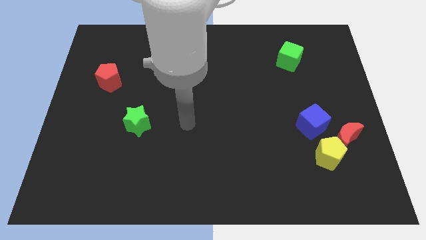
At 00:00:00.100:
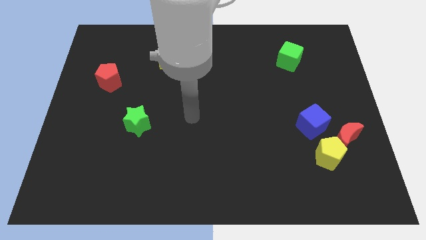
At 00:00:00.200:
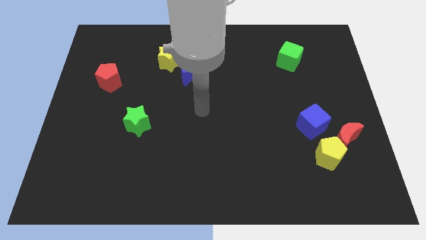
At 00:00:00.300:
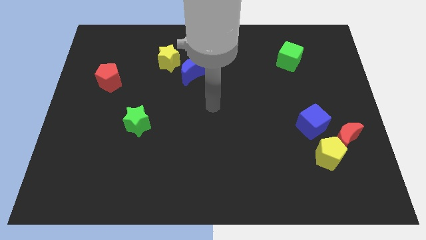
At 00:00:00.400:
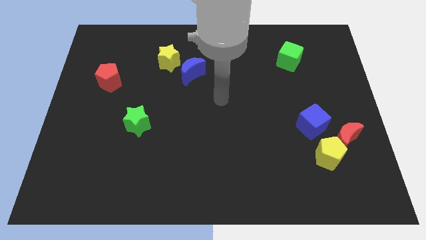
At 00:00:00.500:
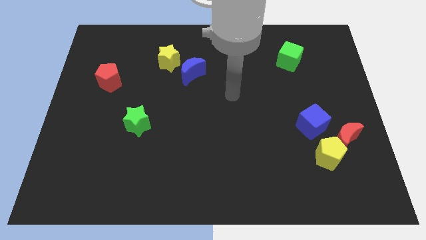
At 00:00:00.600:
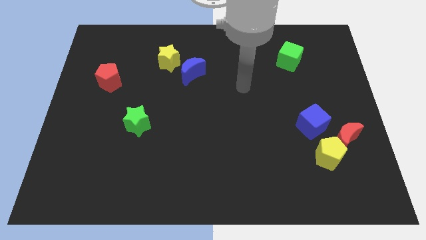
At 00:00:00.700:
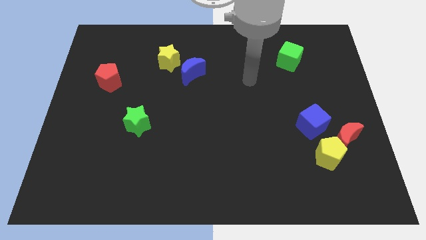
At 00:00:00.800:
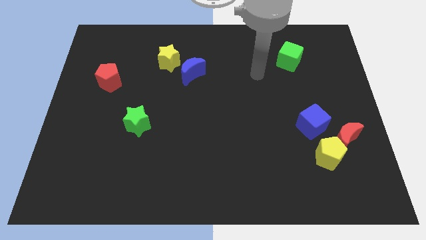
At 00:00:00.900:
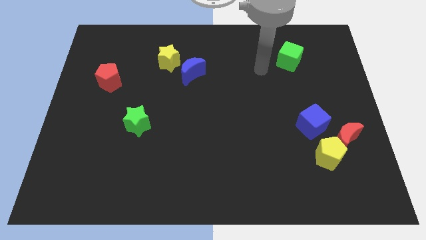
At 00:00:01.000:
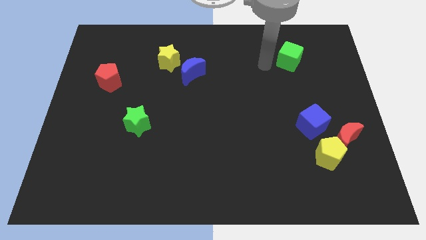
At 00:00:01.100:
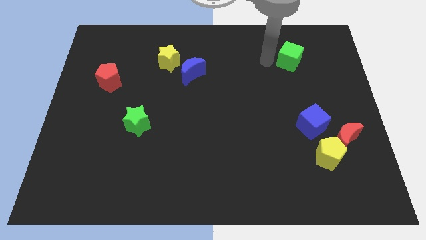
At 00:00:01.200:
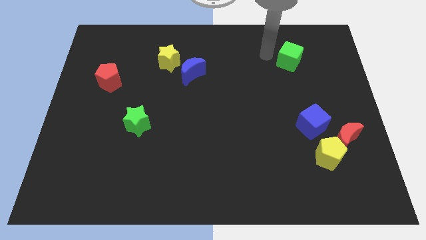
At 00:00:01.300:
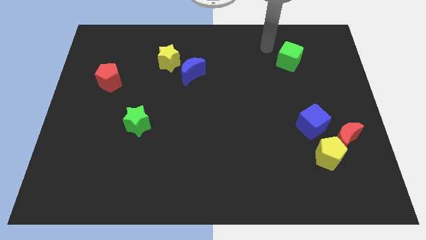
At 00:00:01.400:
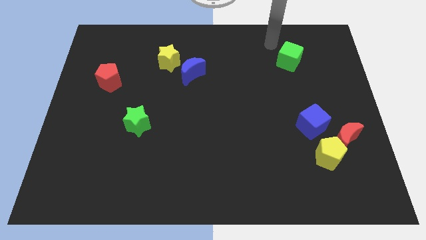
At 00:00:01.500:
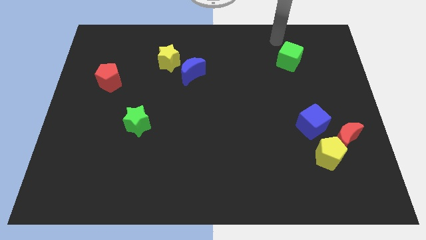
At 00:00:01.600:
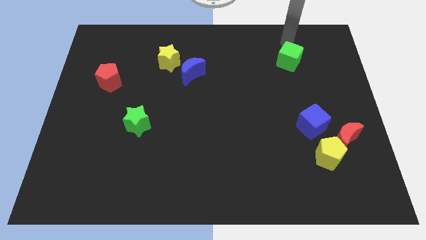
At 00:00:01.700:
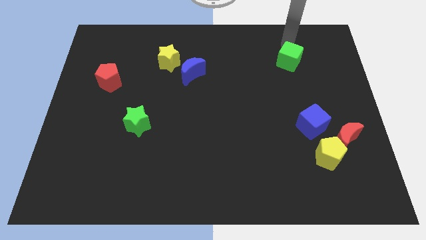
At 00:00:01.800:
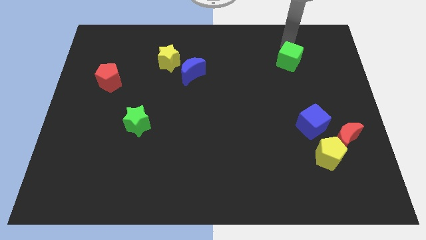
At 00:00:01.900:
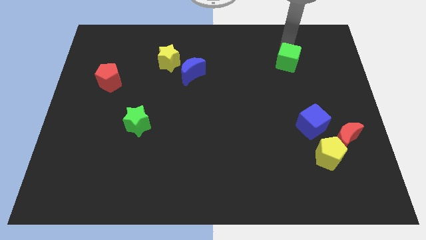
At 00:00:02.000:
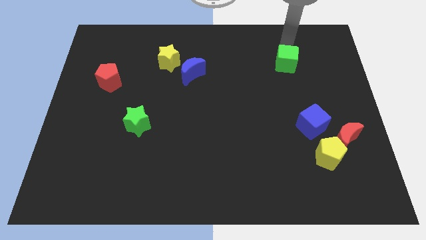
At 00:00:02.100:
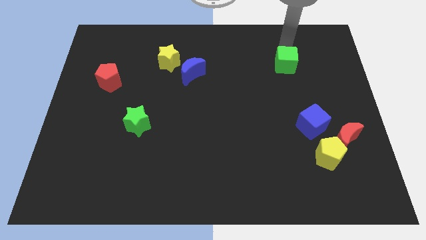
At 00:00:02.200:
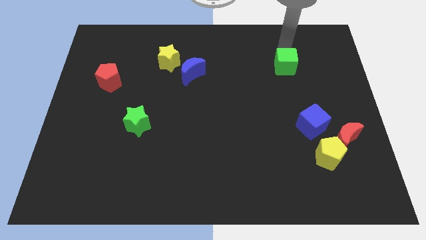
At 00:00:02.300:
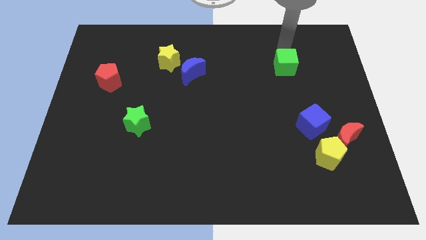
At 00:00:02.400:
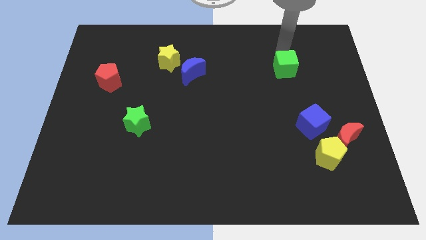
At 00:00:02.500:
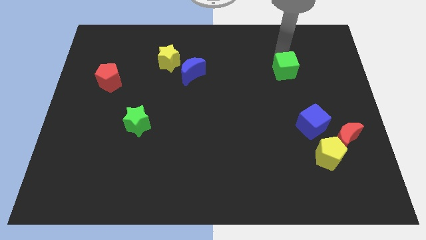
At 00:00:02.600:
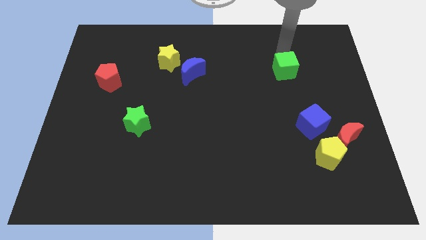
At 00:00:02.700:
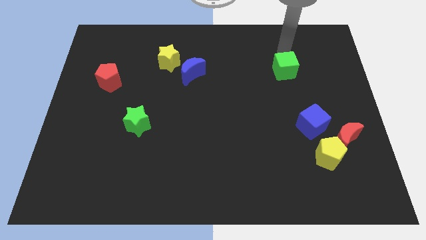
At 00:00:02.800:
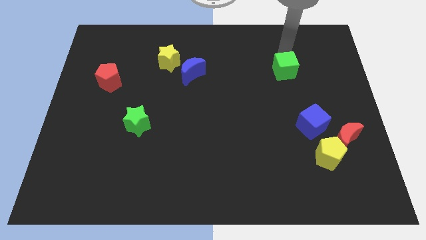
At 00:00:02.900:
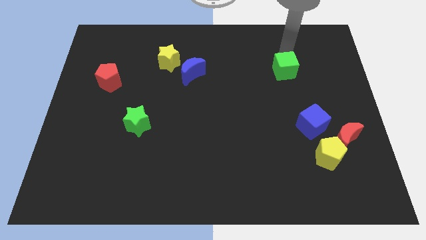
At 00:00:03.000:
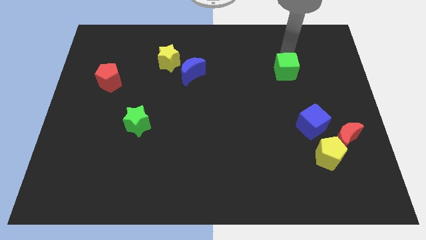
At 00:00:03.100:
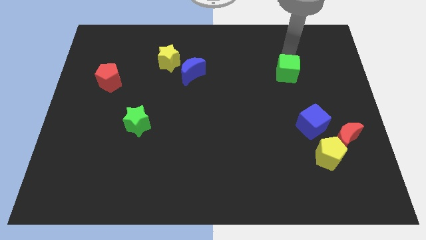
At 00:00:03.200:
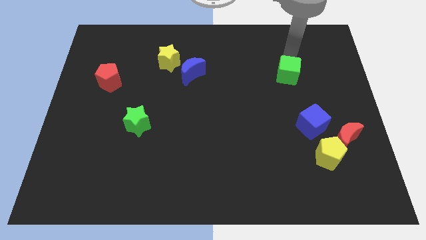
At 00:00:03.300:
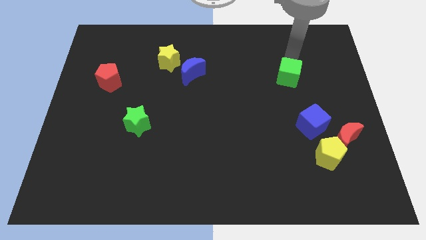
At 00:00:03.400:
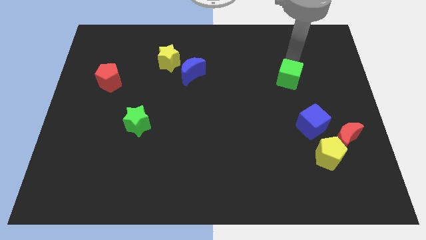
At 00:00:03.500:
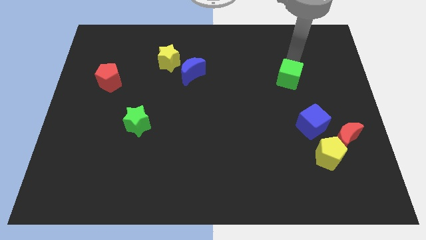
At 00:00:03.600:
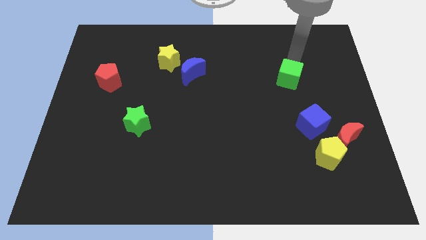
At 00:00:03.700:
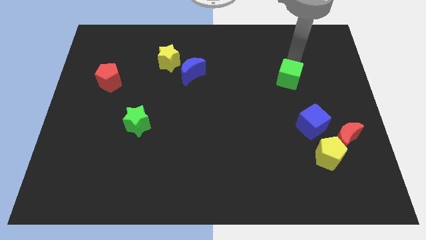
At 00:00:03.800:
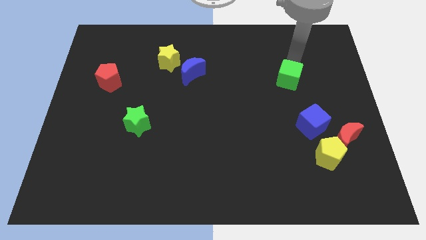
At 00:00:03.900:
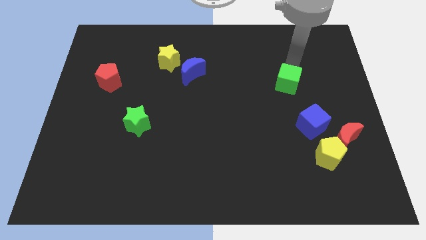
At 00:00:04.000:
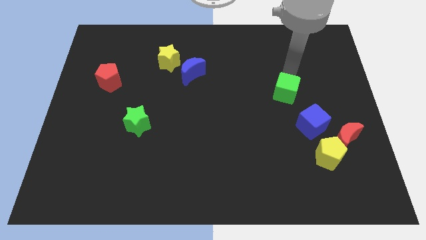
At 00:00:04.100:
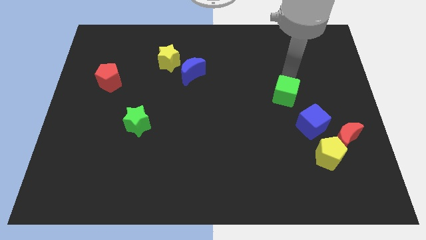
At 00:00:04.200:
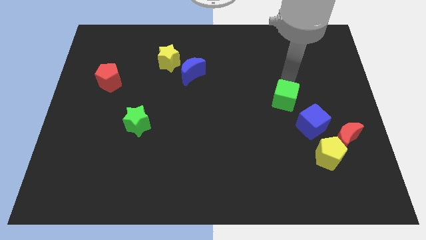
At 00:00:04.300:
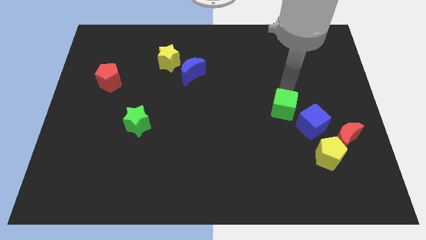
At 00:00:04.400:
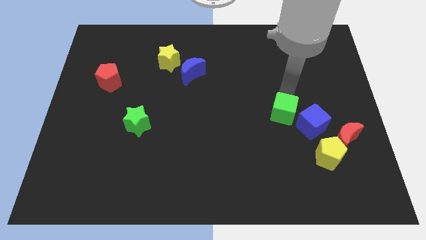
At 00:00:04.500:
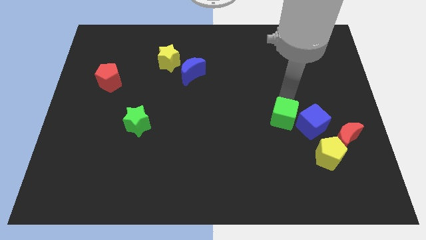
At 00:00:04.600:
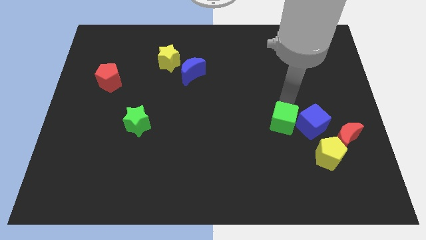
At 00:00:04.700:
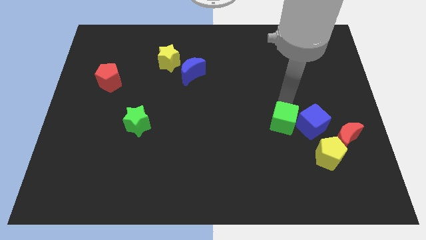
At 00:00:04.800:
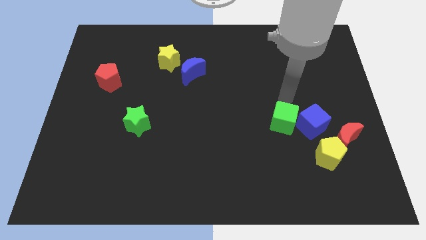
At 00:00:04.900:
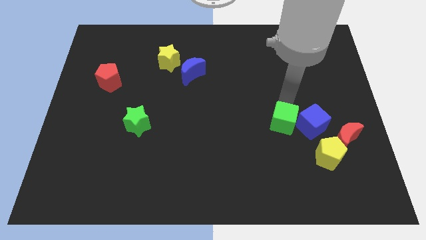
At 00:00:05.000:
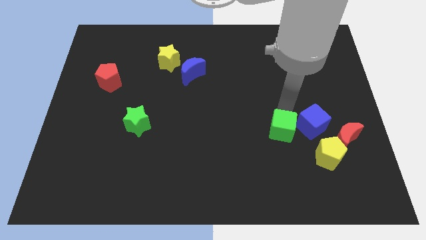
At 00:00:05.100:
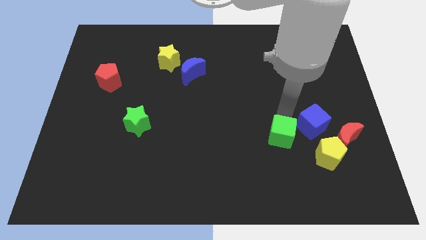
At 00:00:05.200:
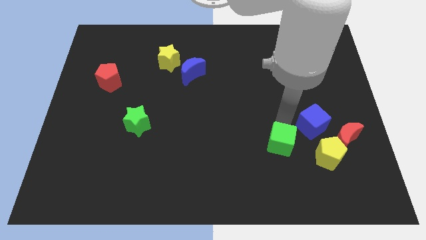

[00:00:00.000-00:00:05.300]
push the green cube just left of the yellow pentagon

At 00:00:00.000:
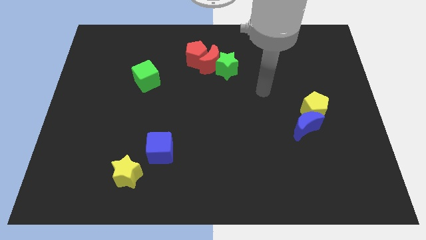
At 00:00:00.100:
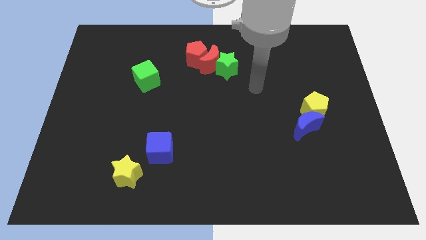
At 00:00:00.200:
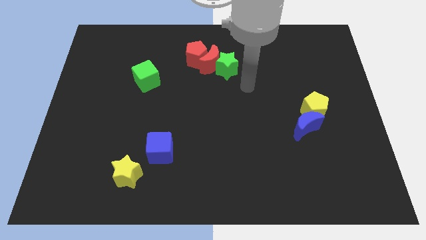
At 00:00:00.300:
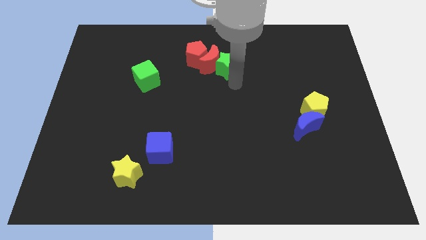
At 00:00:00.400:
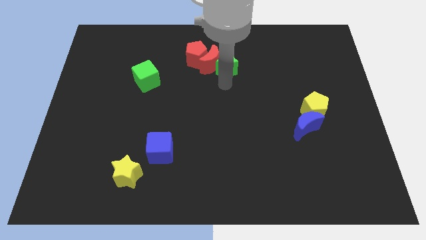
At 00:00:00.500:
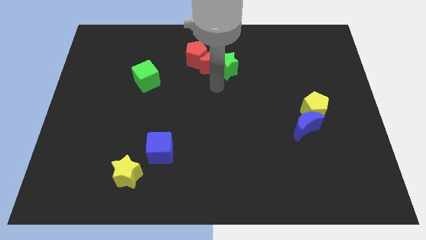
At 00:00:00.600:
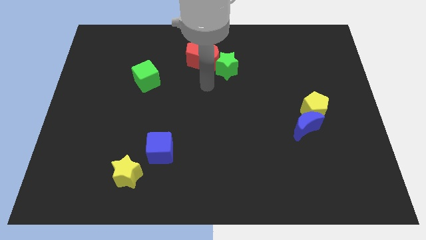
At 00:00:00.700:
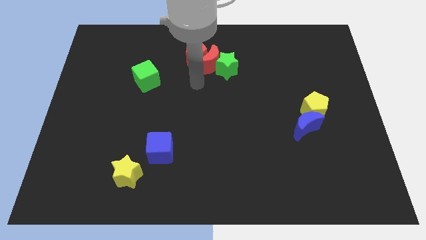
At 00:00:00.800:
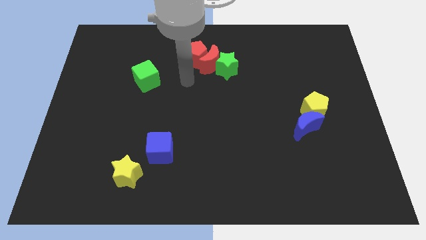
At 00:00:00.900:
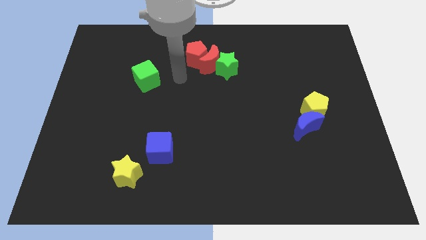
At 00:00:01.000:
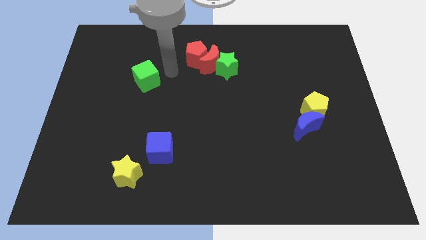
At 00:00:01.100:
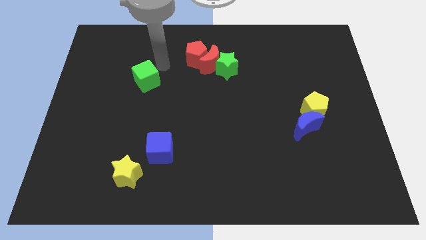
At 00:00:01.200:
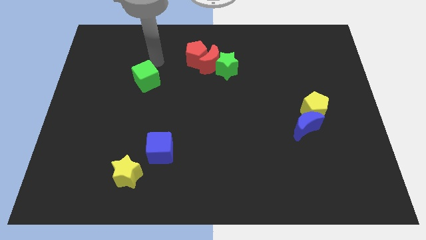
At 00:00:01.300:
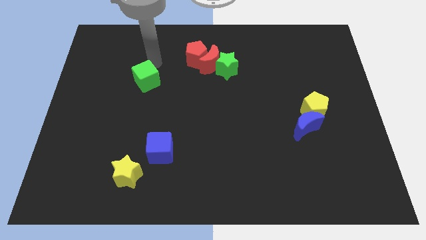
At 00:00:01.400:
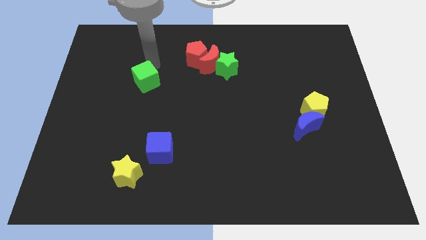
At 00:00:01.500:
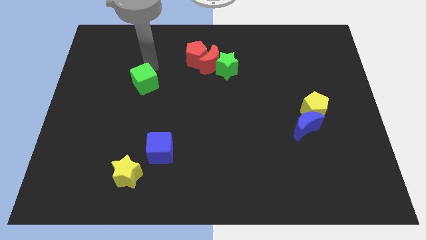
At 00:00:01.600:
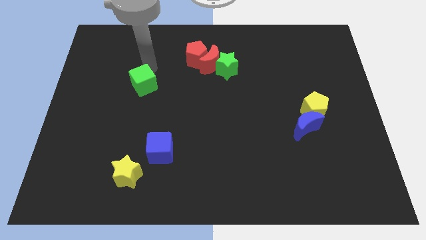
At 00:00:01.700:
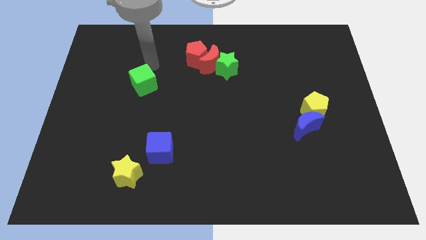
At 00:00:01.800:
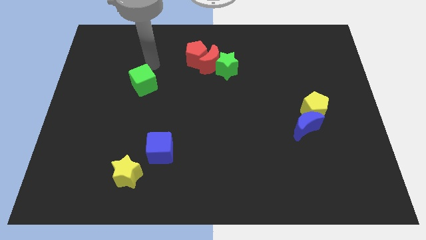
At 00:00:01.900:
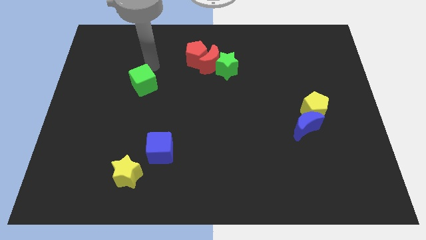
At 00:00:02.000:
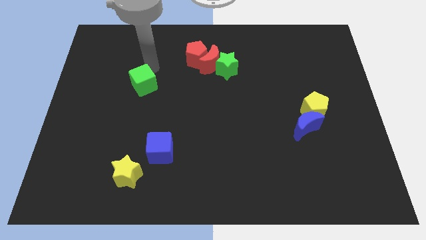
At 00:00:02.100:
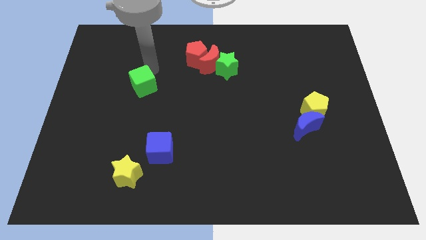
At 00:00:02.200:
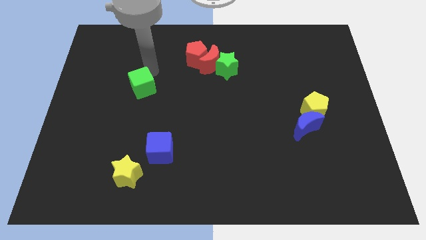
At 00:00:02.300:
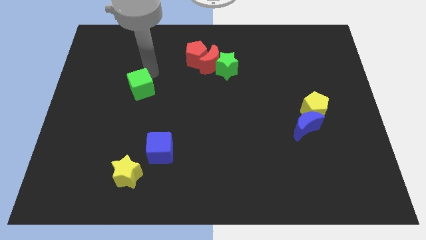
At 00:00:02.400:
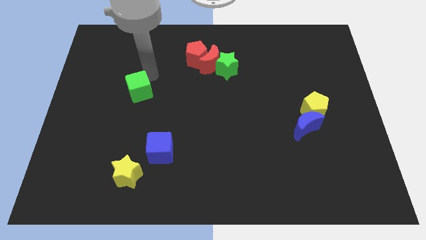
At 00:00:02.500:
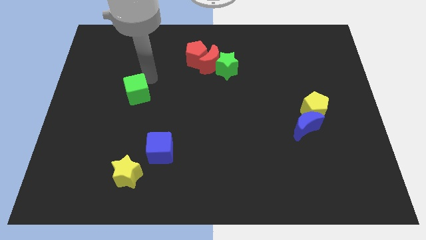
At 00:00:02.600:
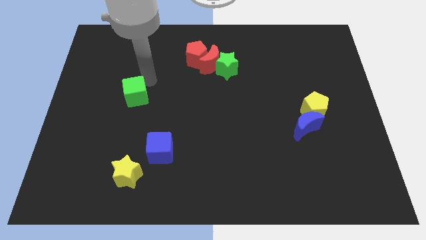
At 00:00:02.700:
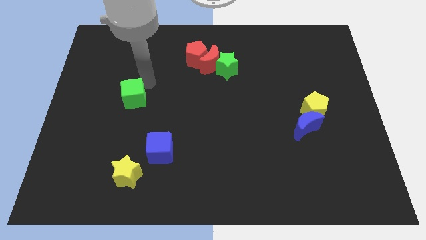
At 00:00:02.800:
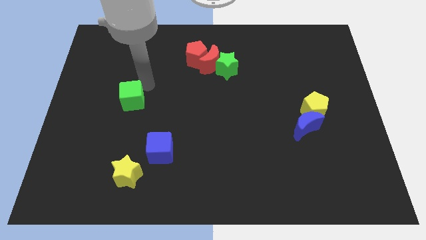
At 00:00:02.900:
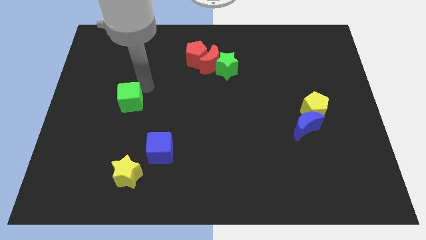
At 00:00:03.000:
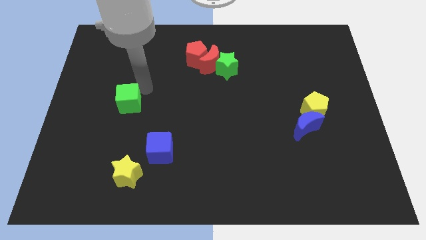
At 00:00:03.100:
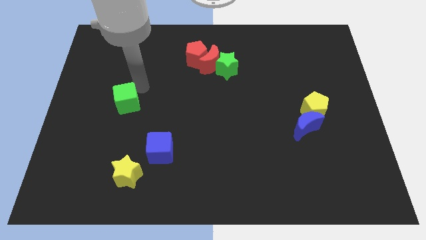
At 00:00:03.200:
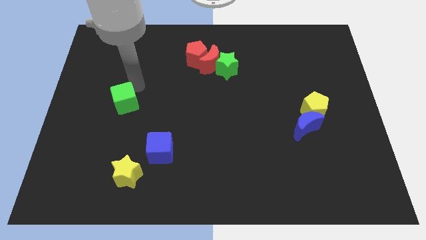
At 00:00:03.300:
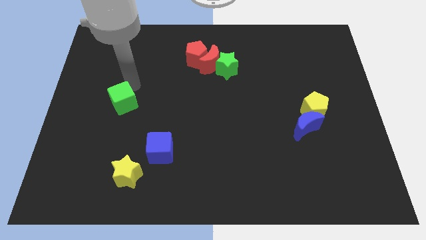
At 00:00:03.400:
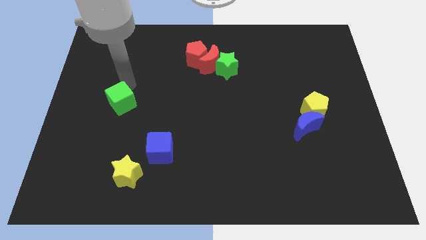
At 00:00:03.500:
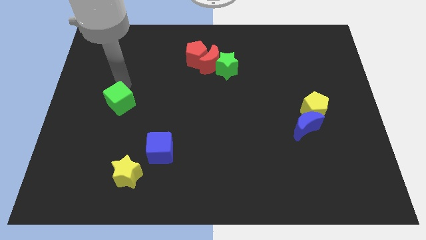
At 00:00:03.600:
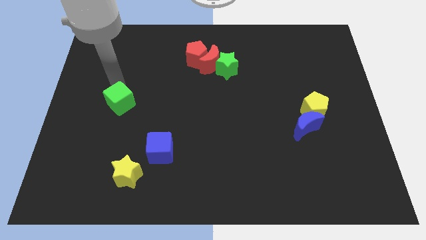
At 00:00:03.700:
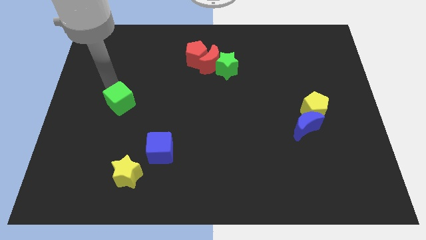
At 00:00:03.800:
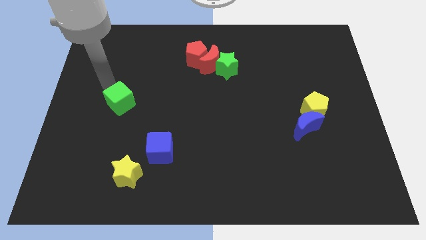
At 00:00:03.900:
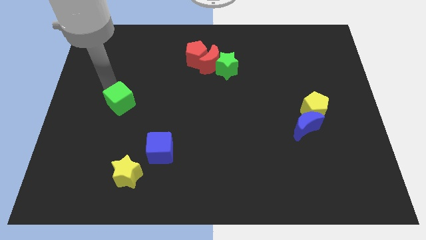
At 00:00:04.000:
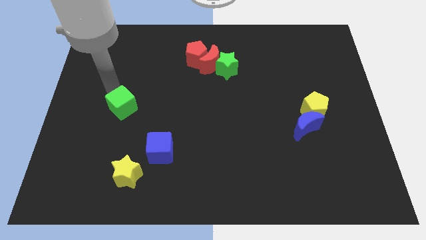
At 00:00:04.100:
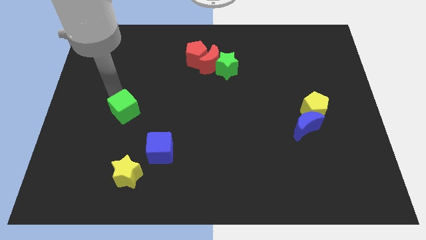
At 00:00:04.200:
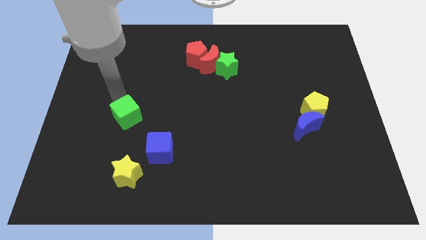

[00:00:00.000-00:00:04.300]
push the green cube to the top side of the yellow star
